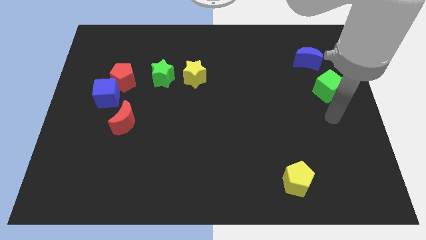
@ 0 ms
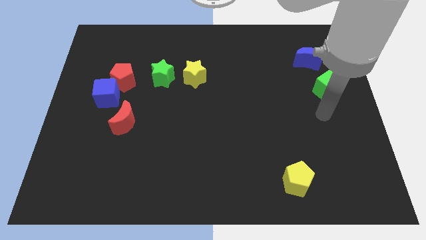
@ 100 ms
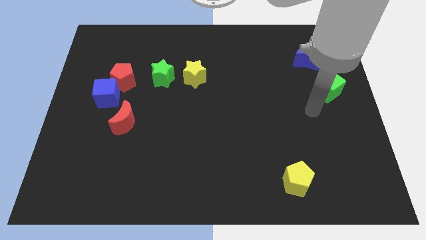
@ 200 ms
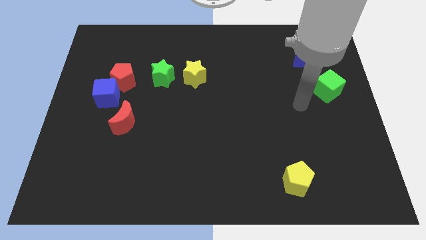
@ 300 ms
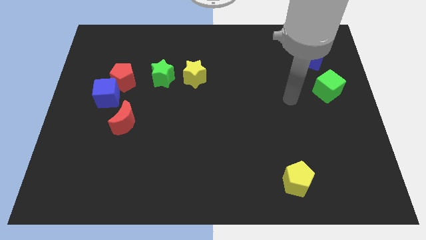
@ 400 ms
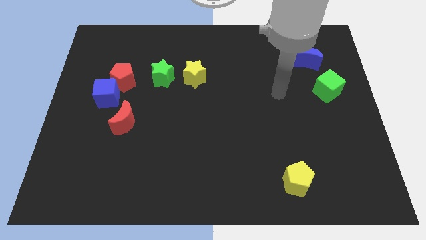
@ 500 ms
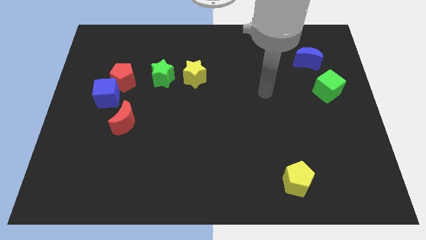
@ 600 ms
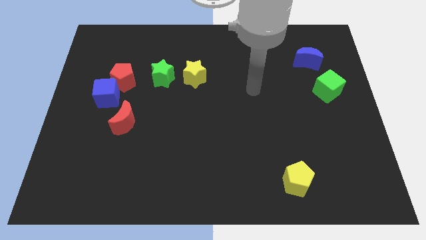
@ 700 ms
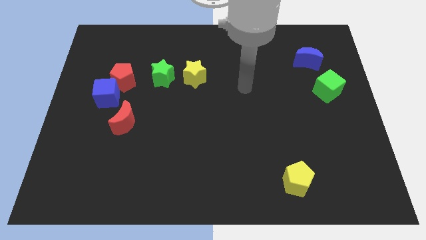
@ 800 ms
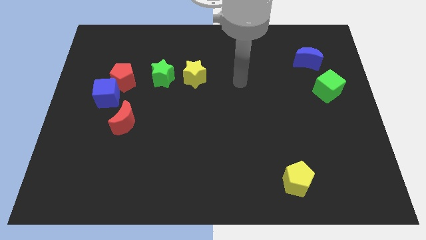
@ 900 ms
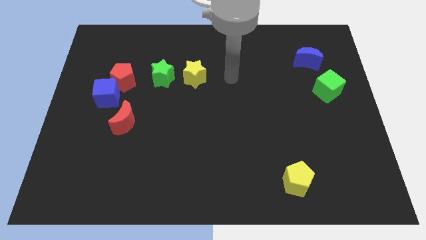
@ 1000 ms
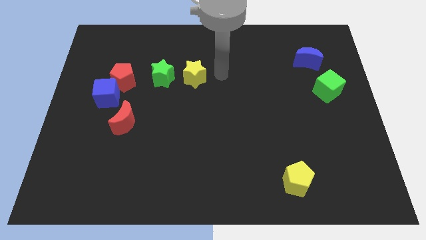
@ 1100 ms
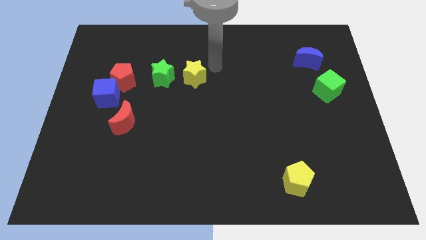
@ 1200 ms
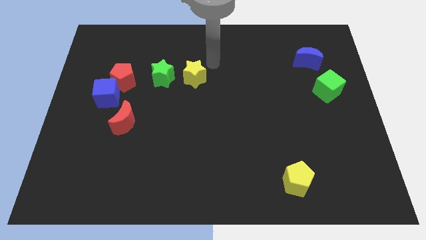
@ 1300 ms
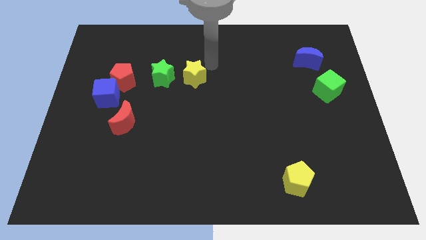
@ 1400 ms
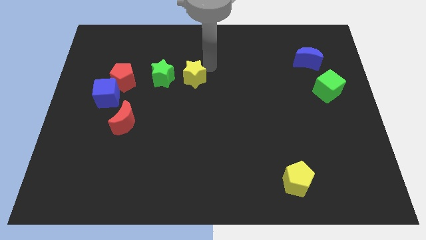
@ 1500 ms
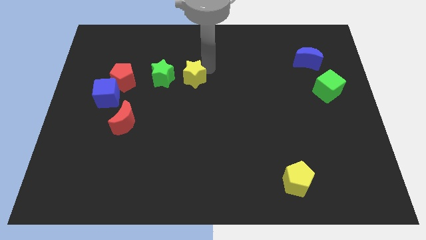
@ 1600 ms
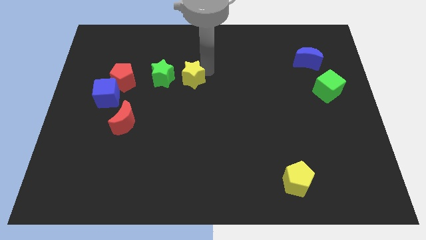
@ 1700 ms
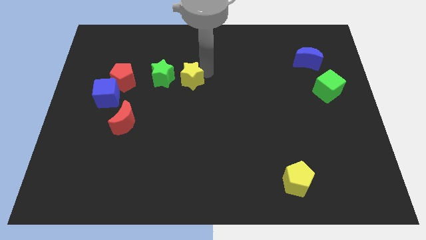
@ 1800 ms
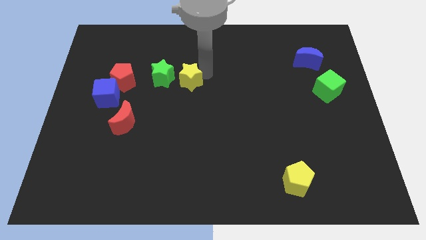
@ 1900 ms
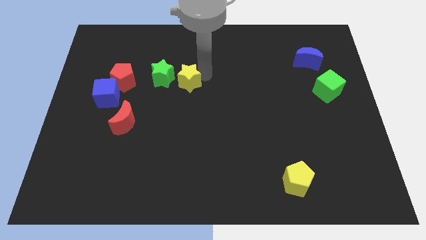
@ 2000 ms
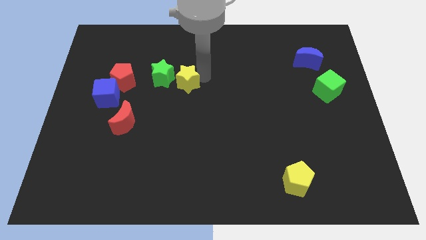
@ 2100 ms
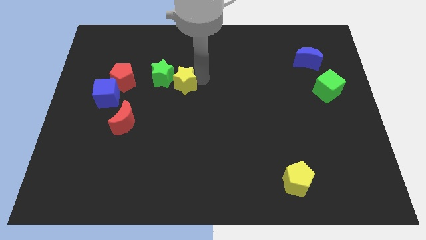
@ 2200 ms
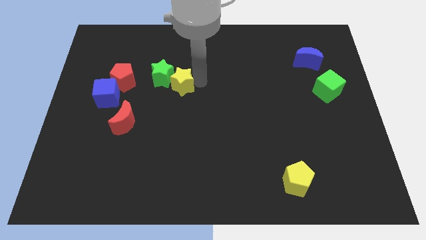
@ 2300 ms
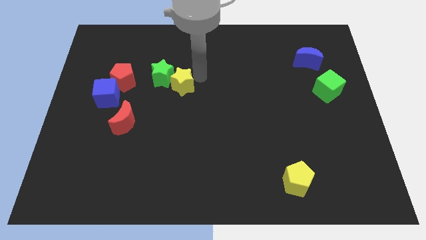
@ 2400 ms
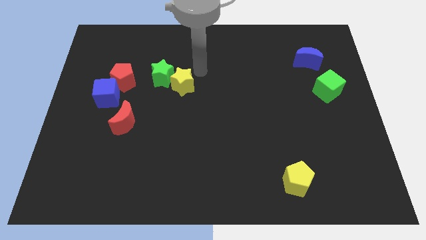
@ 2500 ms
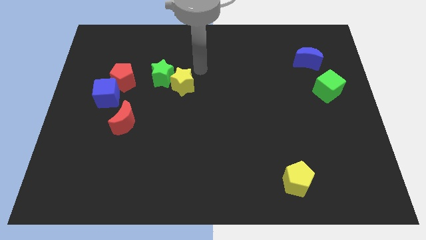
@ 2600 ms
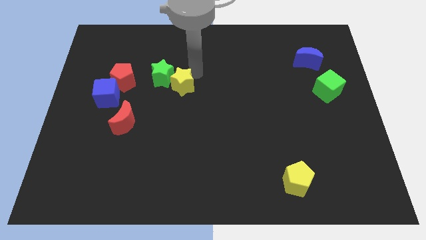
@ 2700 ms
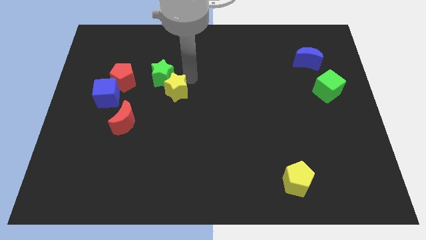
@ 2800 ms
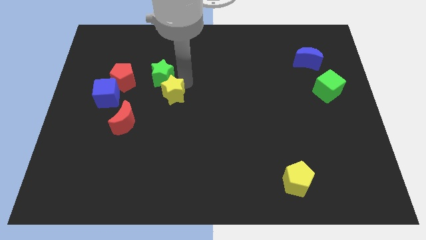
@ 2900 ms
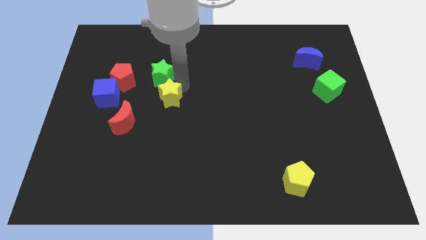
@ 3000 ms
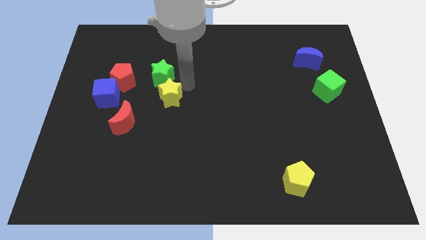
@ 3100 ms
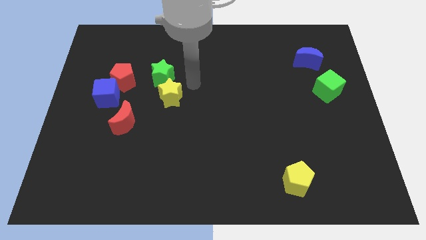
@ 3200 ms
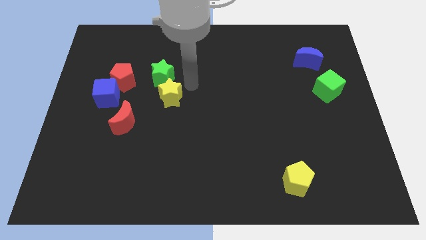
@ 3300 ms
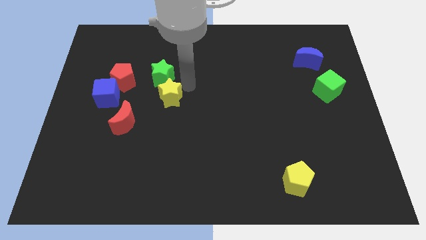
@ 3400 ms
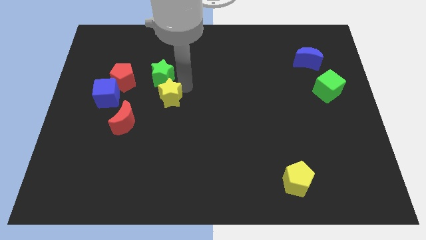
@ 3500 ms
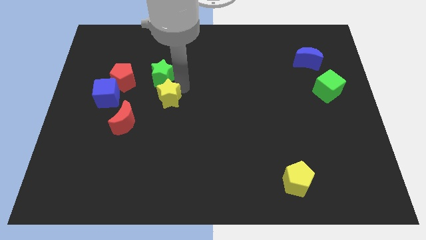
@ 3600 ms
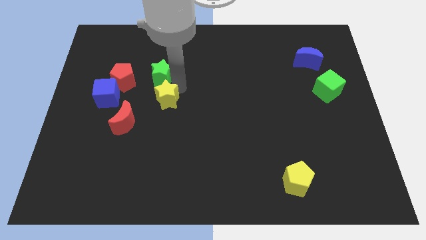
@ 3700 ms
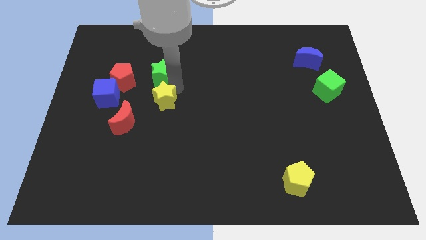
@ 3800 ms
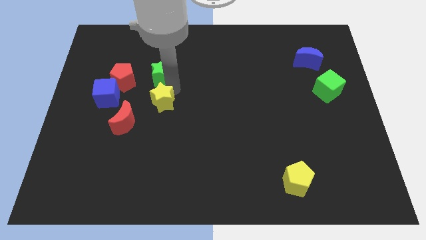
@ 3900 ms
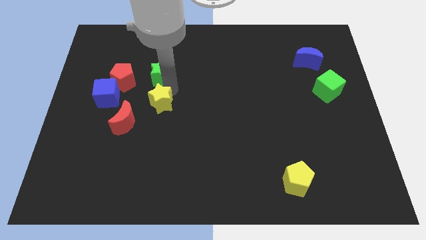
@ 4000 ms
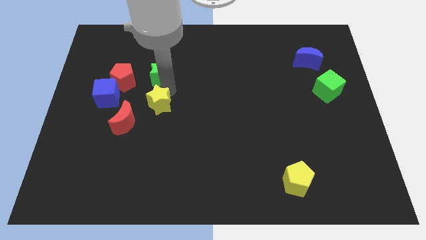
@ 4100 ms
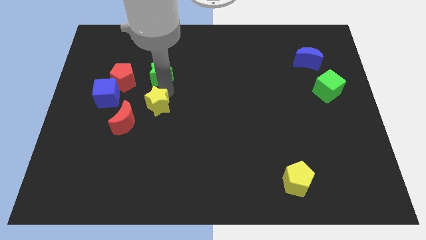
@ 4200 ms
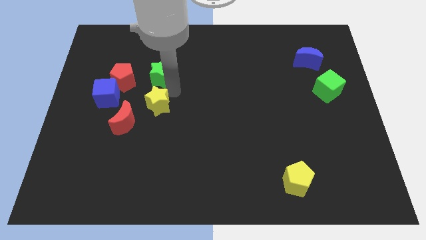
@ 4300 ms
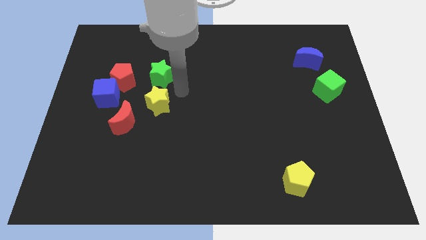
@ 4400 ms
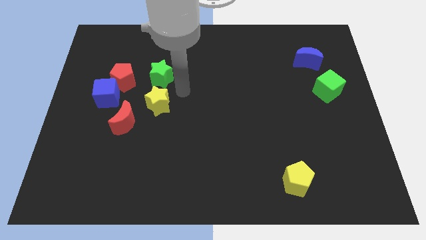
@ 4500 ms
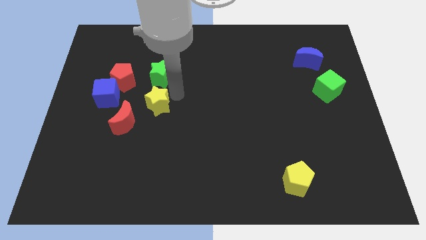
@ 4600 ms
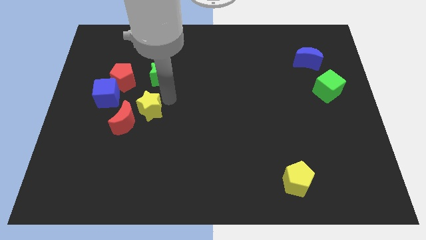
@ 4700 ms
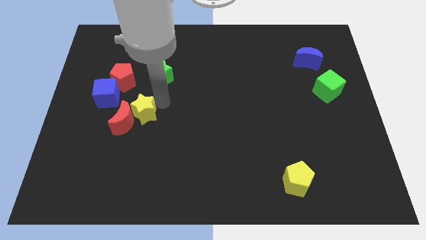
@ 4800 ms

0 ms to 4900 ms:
slide the yellow star towards the red moon

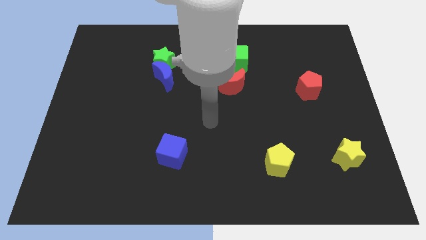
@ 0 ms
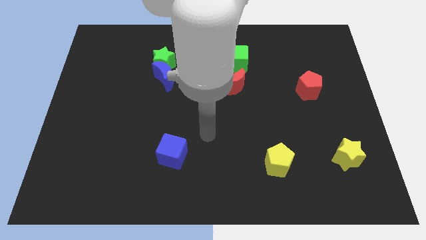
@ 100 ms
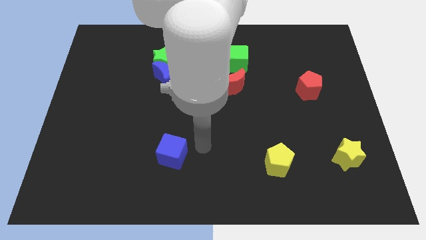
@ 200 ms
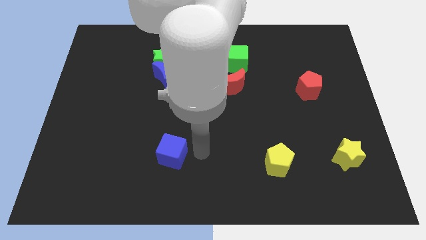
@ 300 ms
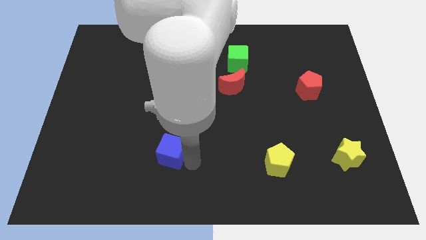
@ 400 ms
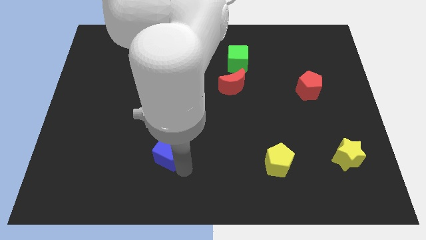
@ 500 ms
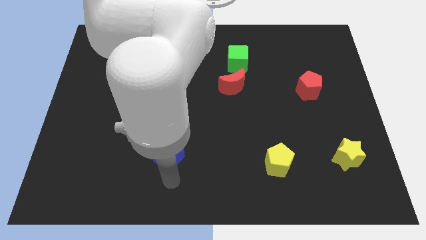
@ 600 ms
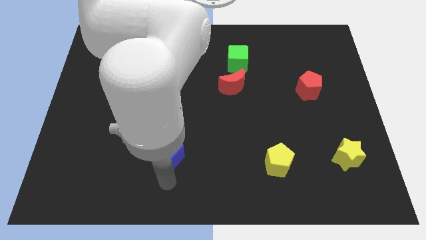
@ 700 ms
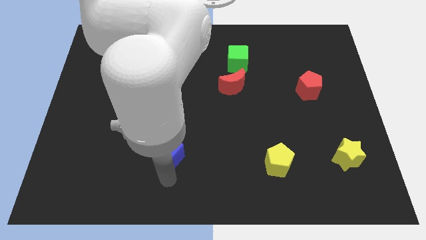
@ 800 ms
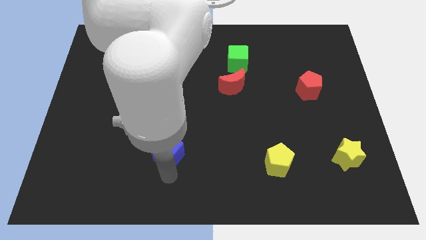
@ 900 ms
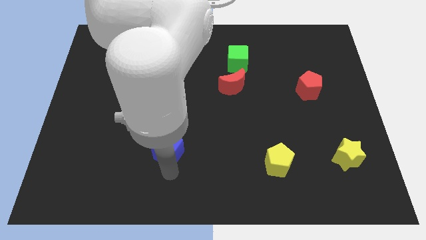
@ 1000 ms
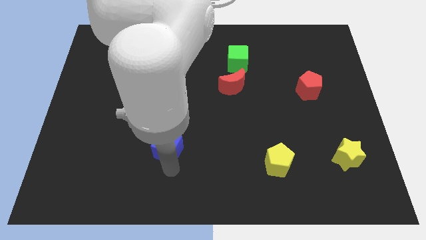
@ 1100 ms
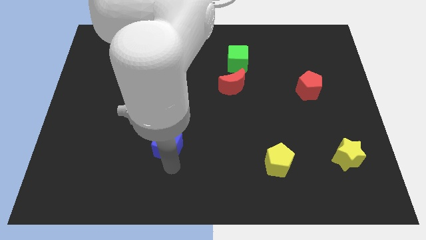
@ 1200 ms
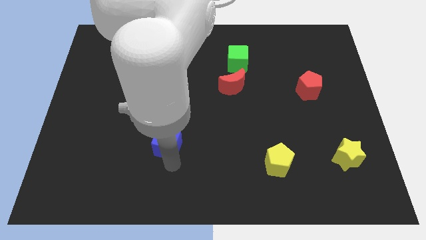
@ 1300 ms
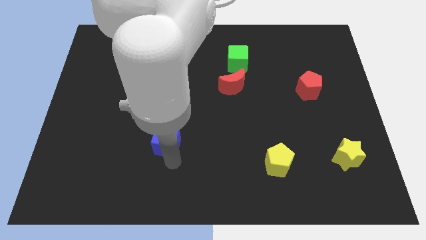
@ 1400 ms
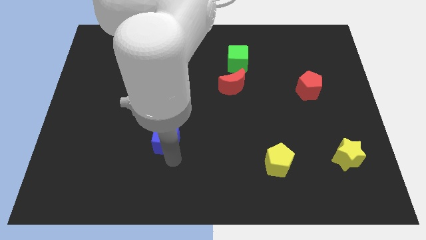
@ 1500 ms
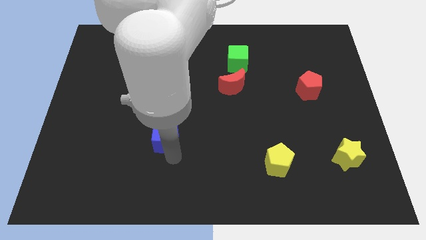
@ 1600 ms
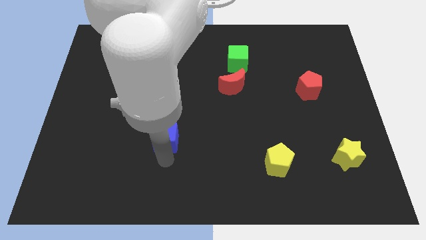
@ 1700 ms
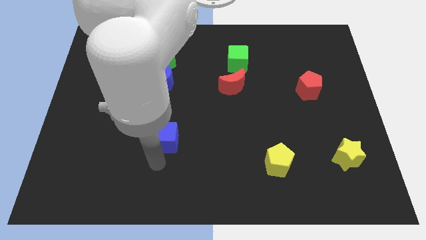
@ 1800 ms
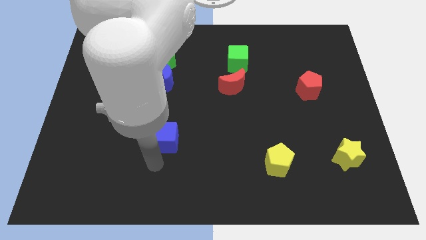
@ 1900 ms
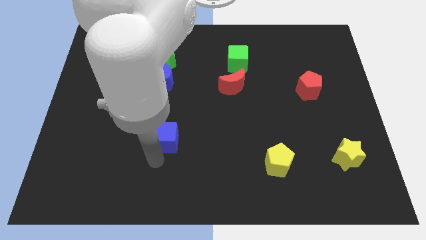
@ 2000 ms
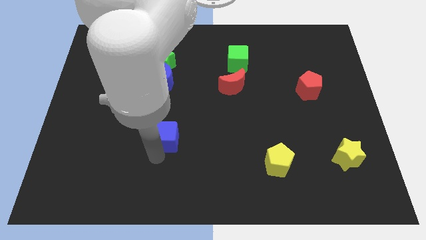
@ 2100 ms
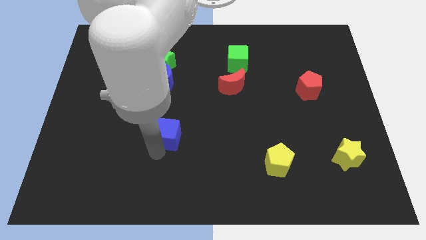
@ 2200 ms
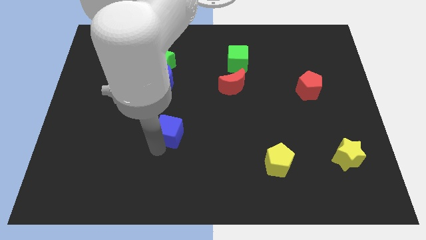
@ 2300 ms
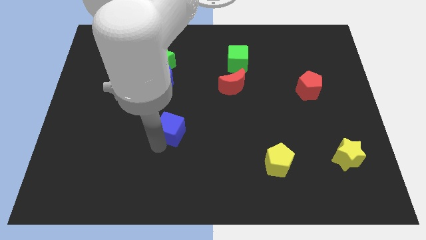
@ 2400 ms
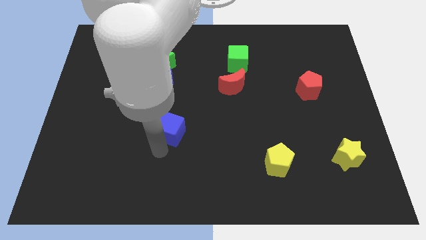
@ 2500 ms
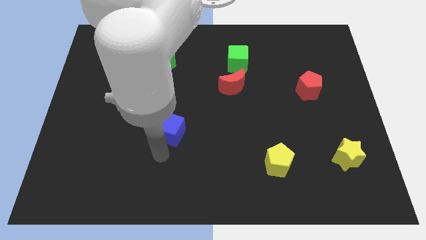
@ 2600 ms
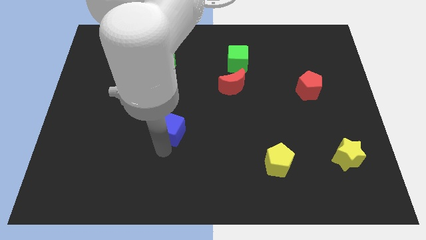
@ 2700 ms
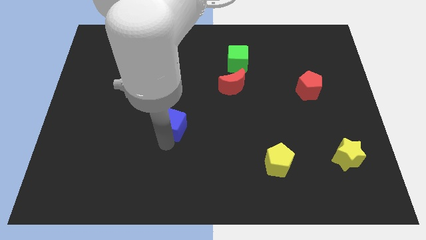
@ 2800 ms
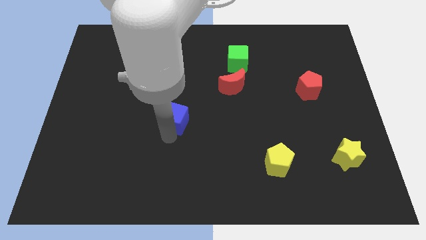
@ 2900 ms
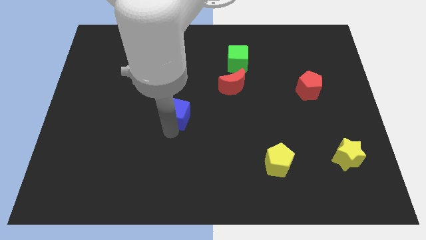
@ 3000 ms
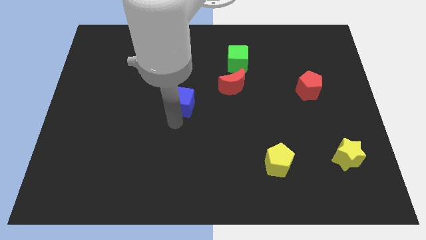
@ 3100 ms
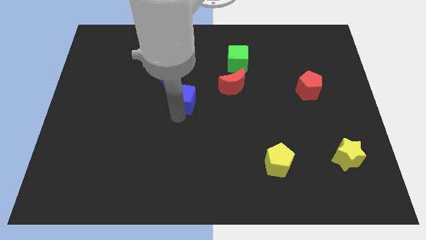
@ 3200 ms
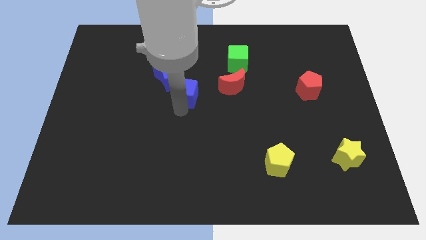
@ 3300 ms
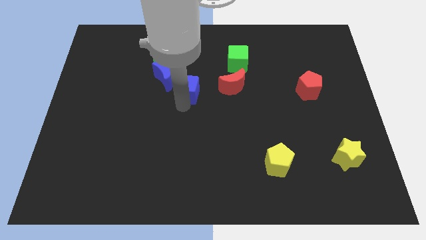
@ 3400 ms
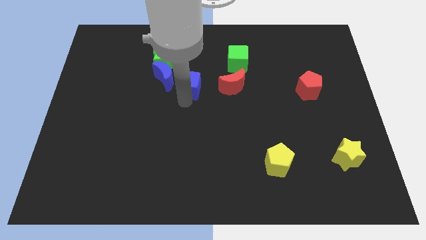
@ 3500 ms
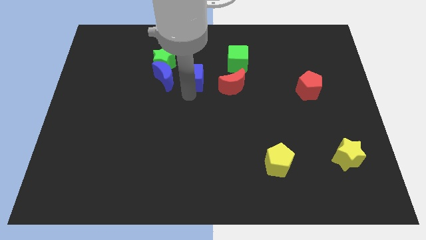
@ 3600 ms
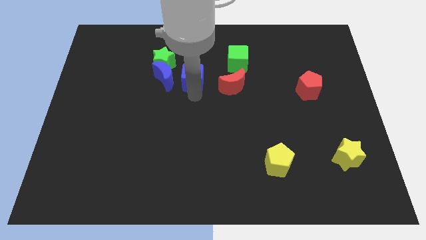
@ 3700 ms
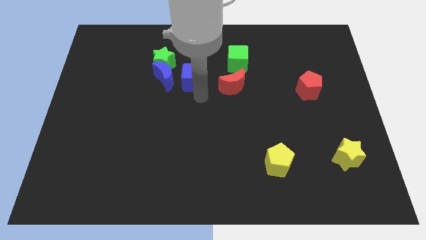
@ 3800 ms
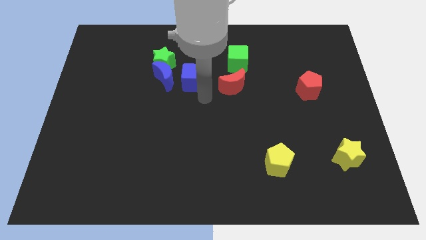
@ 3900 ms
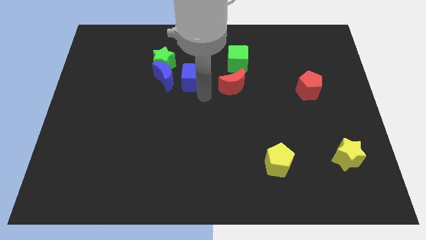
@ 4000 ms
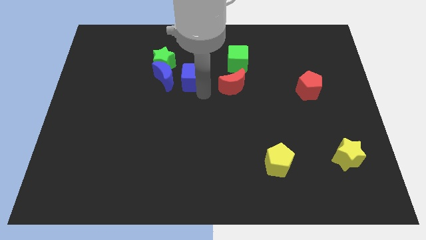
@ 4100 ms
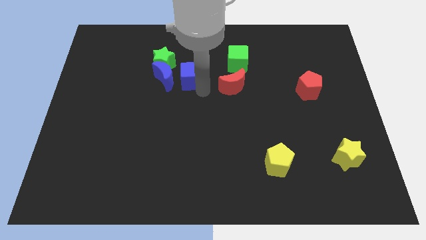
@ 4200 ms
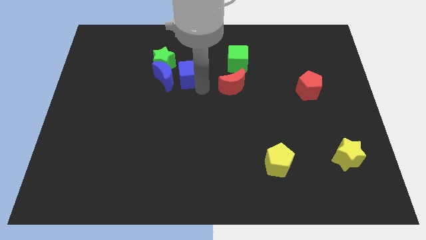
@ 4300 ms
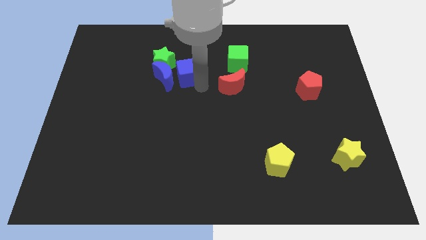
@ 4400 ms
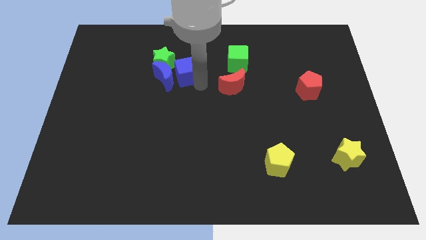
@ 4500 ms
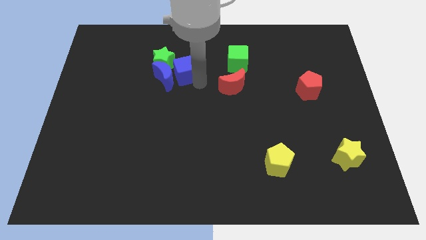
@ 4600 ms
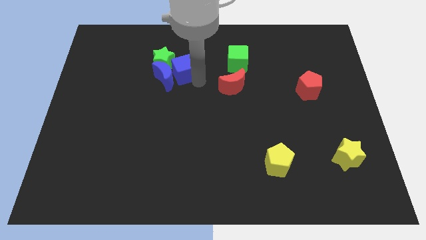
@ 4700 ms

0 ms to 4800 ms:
slide the blue cube to the green star
